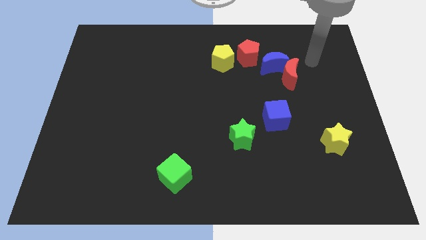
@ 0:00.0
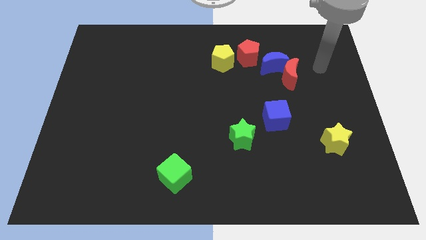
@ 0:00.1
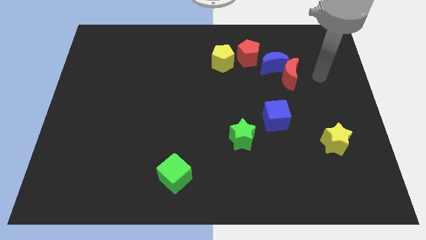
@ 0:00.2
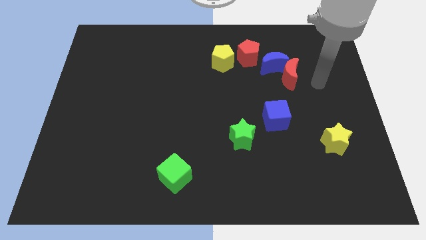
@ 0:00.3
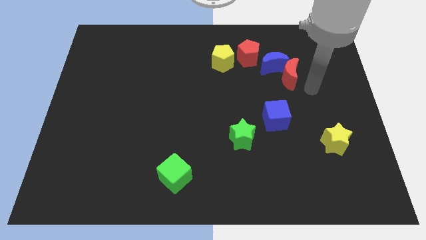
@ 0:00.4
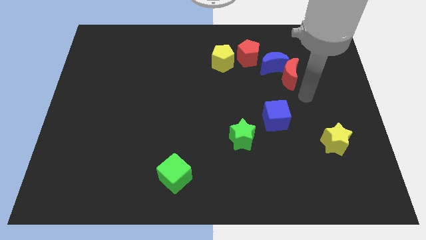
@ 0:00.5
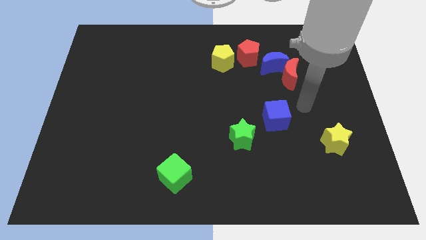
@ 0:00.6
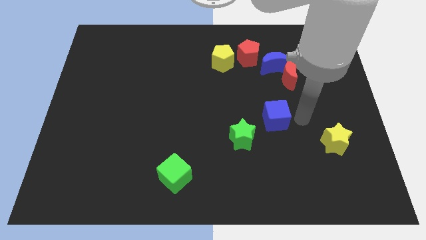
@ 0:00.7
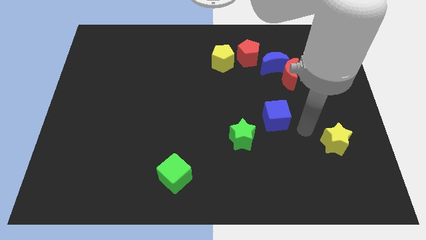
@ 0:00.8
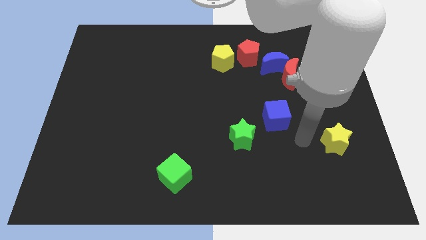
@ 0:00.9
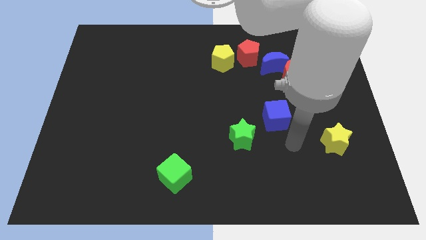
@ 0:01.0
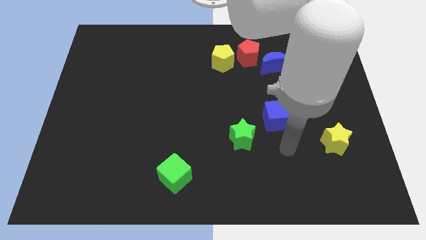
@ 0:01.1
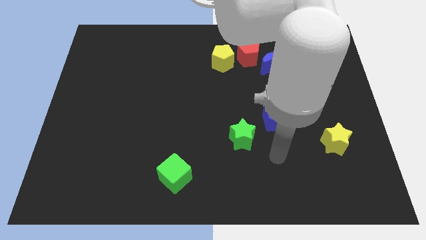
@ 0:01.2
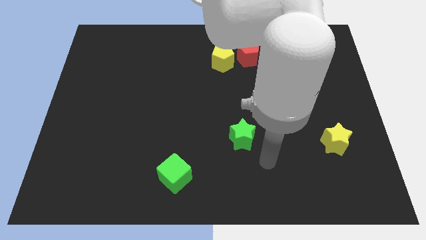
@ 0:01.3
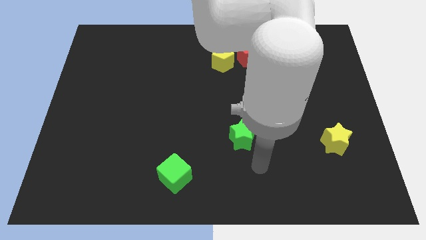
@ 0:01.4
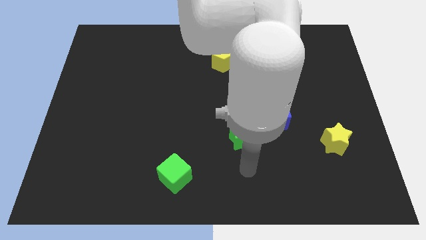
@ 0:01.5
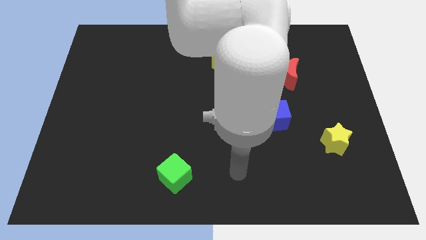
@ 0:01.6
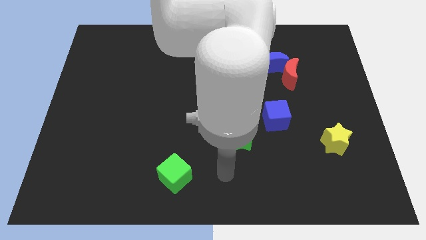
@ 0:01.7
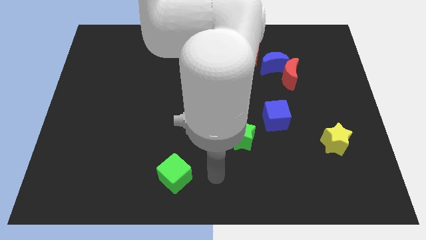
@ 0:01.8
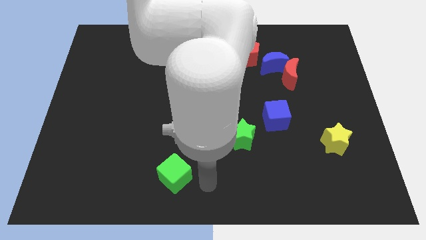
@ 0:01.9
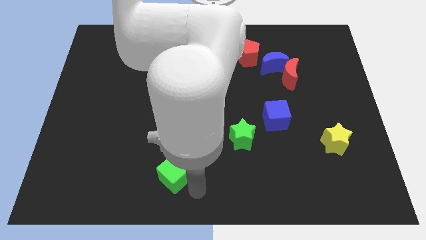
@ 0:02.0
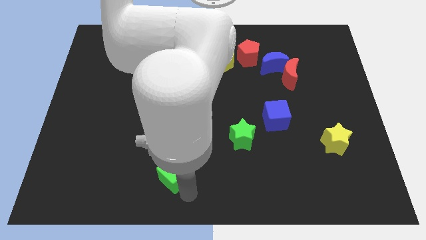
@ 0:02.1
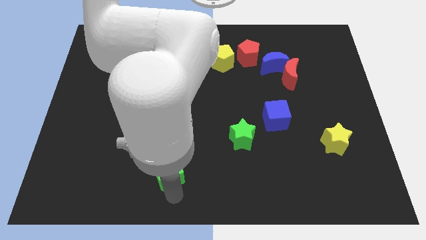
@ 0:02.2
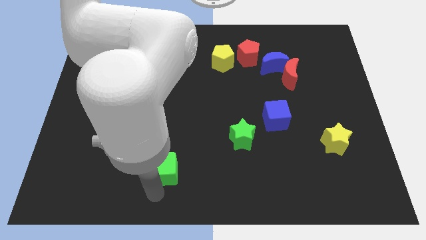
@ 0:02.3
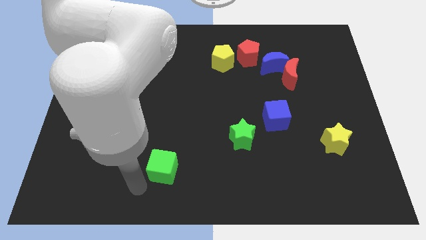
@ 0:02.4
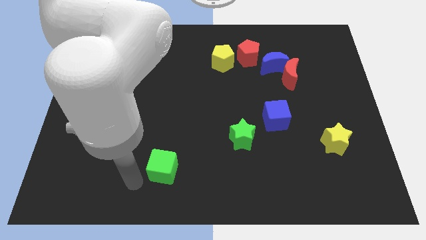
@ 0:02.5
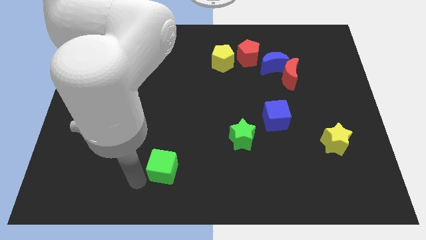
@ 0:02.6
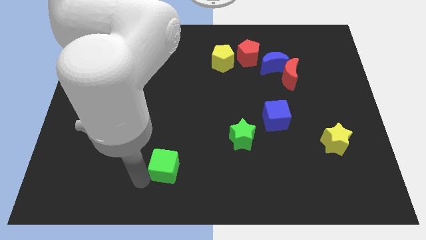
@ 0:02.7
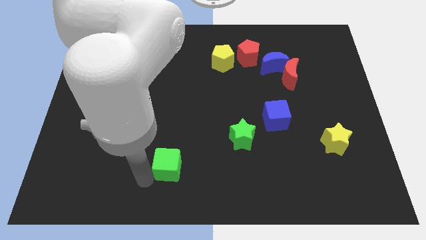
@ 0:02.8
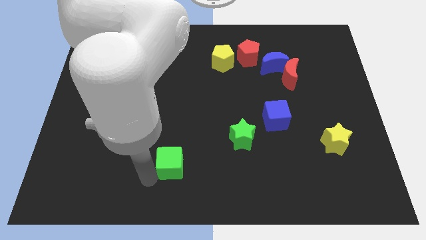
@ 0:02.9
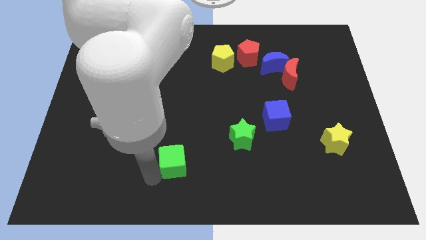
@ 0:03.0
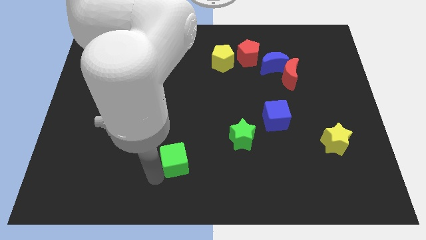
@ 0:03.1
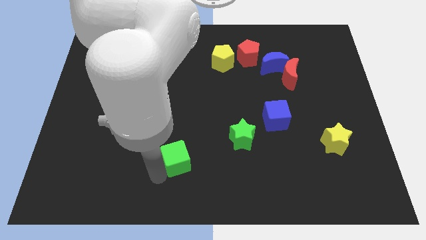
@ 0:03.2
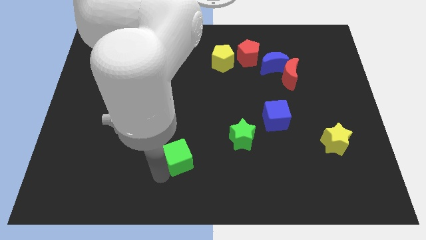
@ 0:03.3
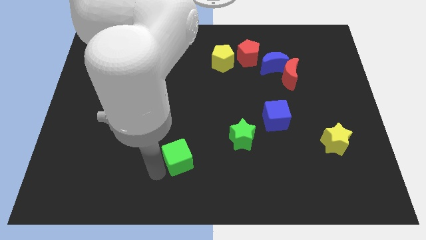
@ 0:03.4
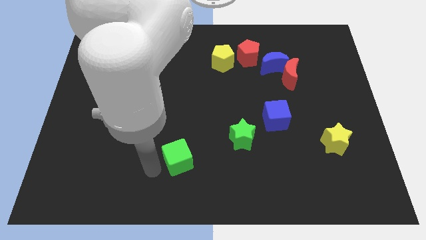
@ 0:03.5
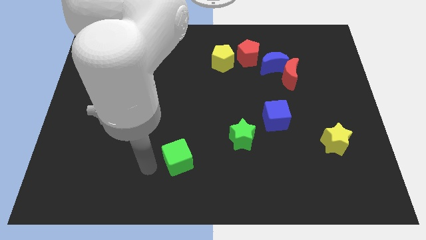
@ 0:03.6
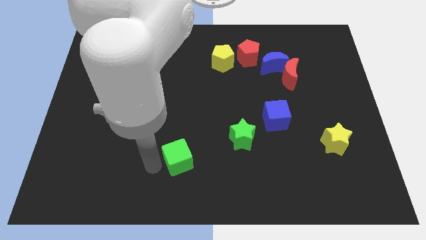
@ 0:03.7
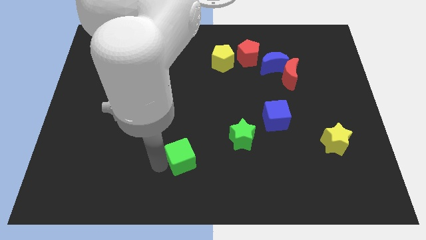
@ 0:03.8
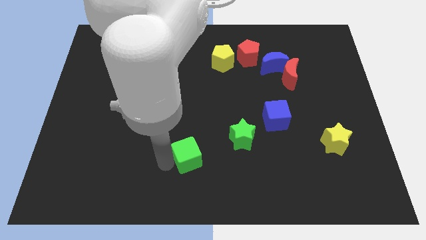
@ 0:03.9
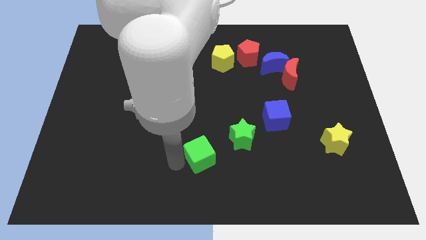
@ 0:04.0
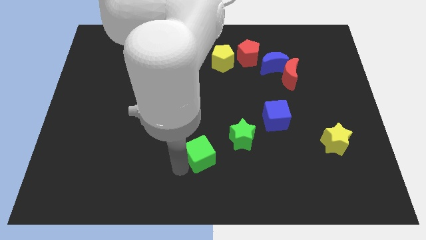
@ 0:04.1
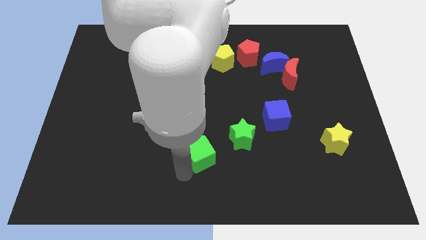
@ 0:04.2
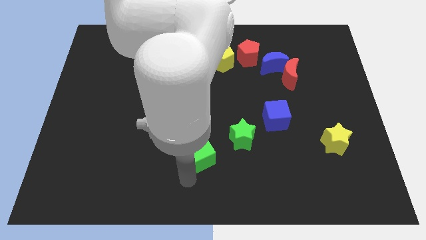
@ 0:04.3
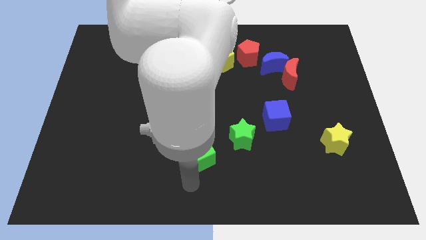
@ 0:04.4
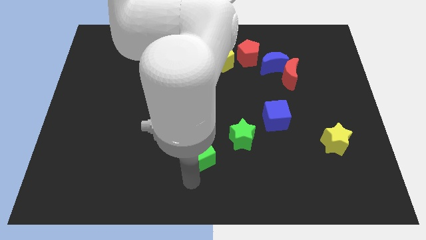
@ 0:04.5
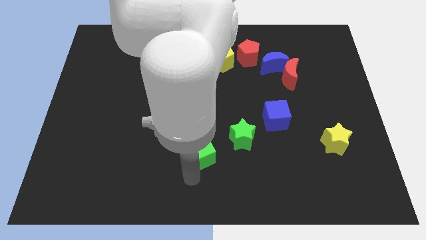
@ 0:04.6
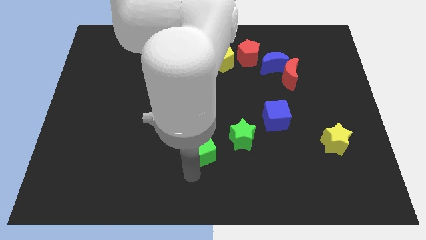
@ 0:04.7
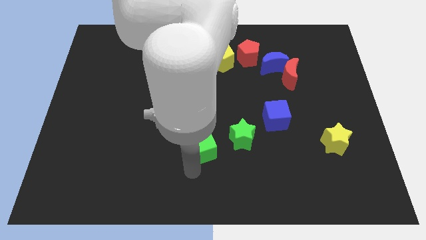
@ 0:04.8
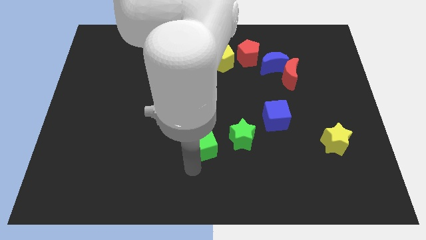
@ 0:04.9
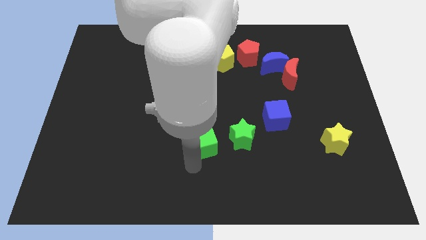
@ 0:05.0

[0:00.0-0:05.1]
push the green cube to the center

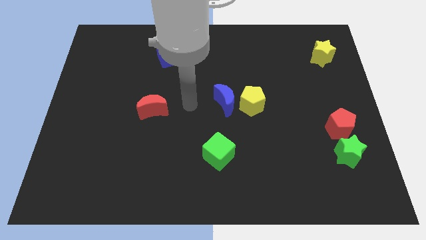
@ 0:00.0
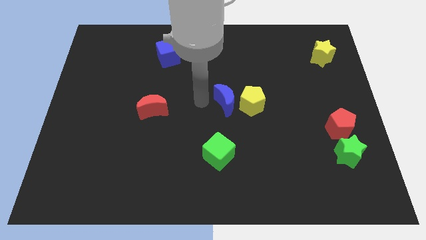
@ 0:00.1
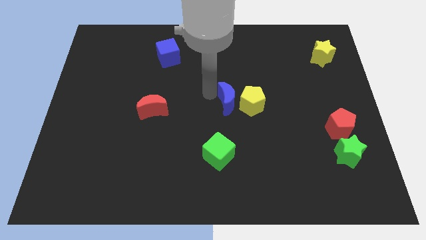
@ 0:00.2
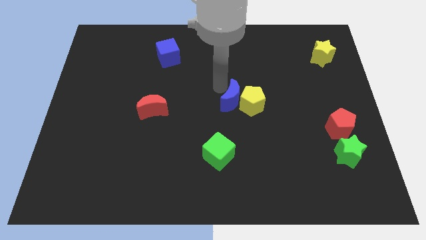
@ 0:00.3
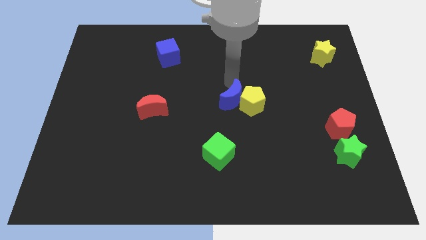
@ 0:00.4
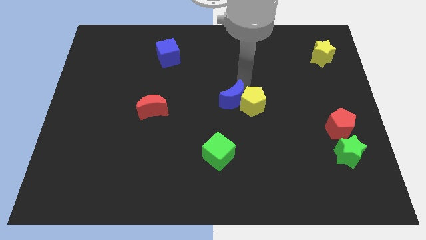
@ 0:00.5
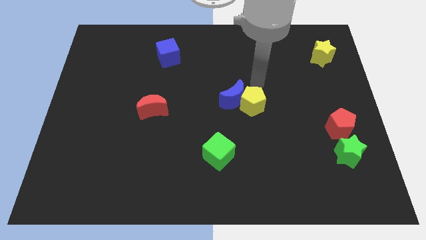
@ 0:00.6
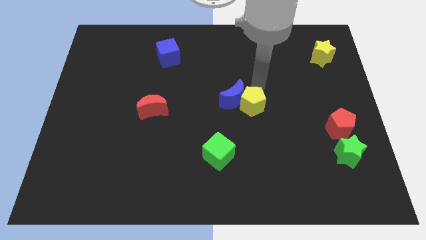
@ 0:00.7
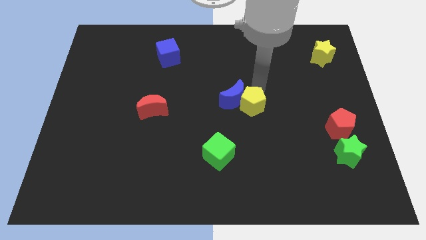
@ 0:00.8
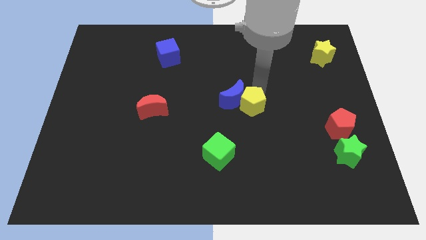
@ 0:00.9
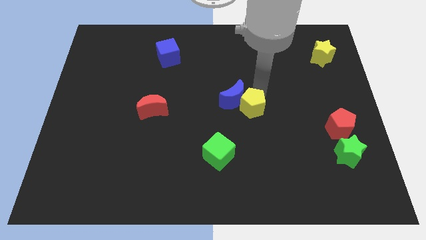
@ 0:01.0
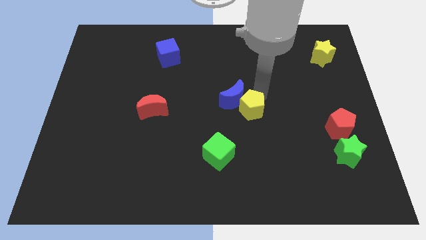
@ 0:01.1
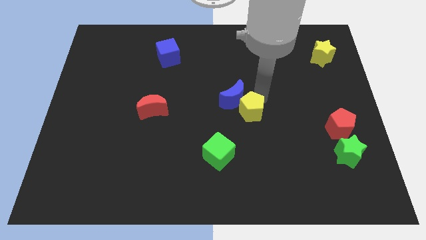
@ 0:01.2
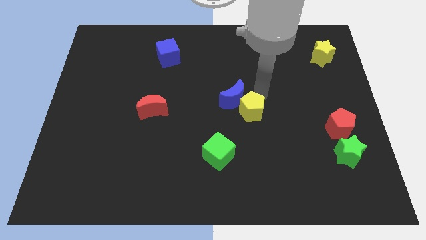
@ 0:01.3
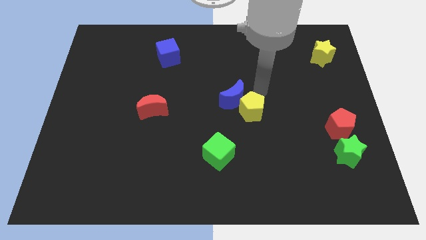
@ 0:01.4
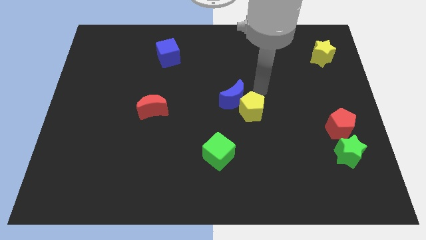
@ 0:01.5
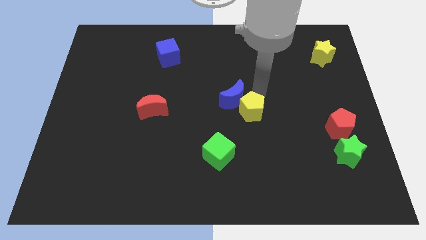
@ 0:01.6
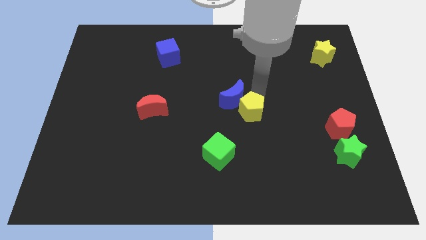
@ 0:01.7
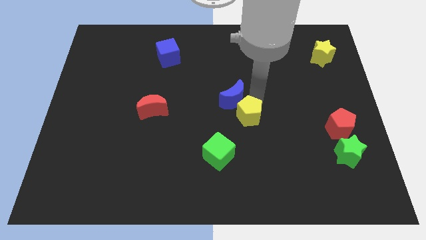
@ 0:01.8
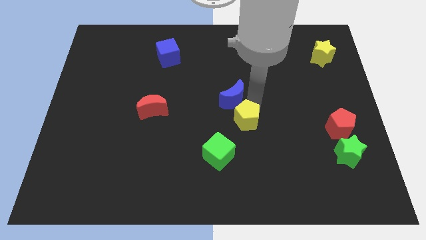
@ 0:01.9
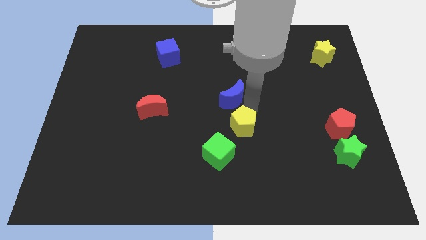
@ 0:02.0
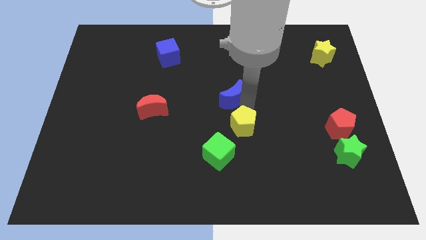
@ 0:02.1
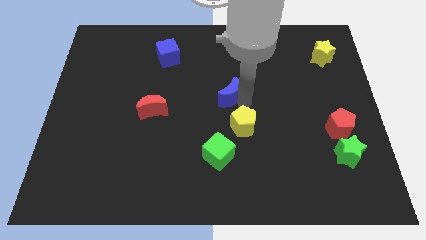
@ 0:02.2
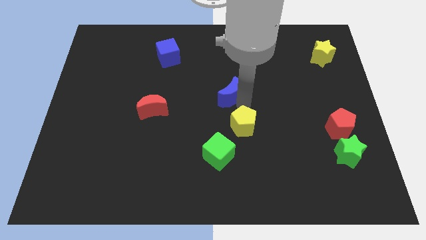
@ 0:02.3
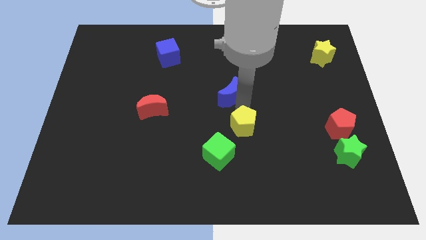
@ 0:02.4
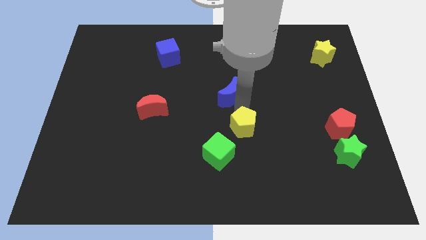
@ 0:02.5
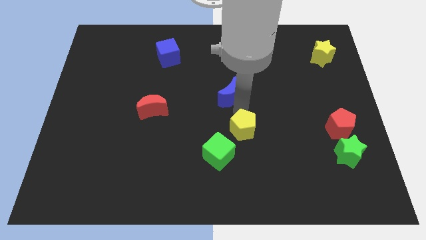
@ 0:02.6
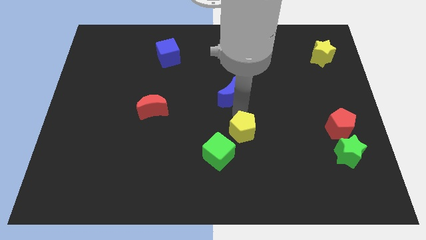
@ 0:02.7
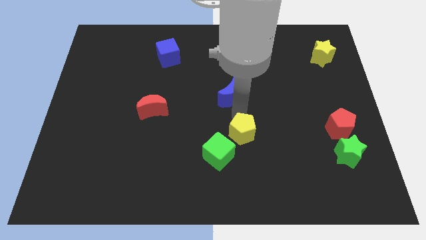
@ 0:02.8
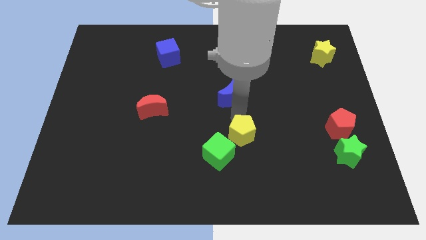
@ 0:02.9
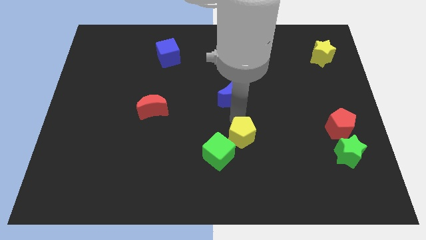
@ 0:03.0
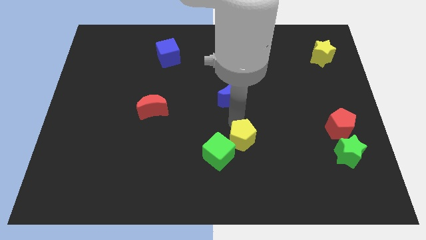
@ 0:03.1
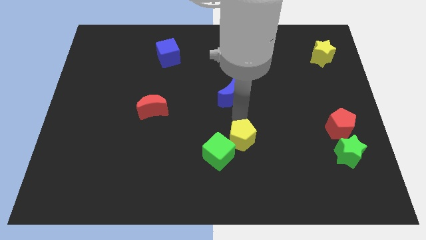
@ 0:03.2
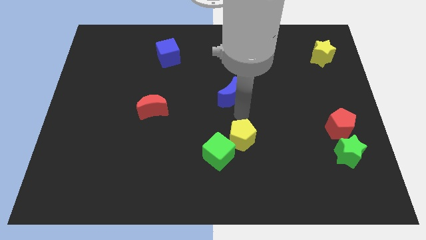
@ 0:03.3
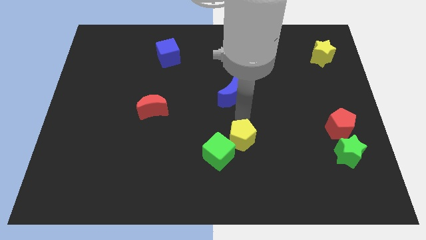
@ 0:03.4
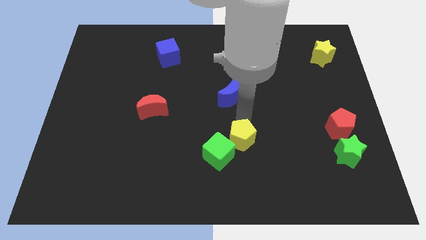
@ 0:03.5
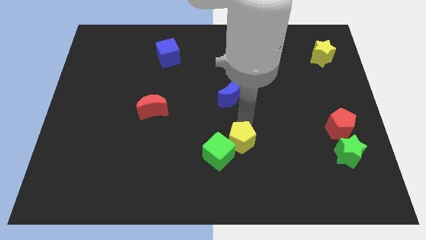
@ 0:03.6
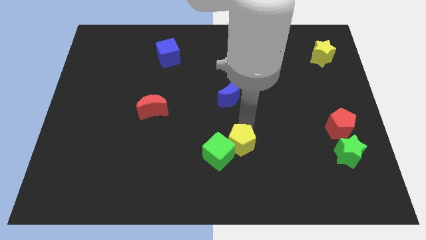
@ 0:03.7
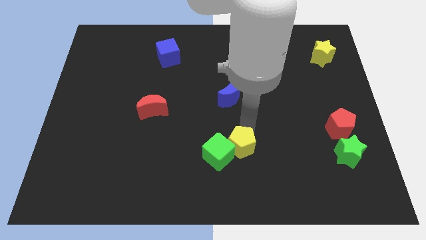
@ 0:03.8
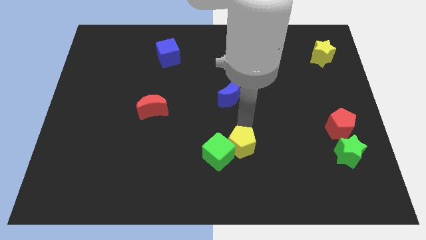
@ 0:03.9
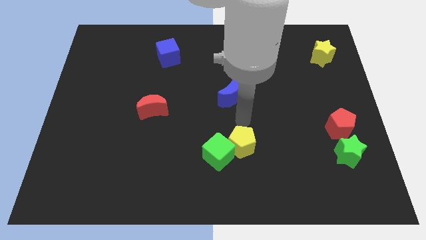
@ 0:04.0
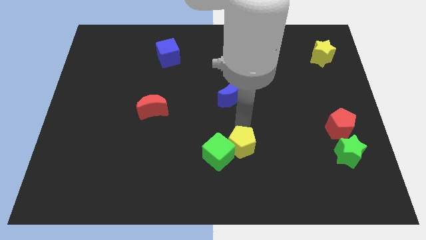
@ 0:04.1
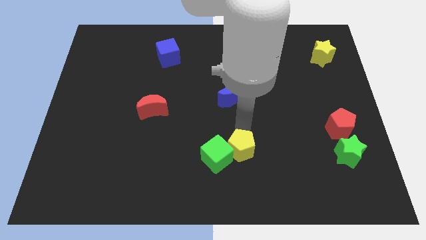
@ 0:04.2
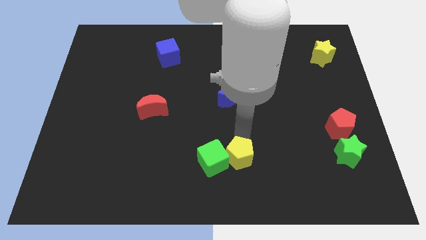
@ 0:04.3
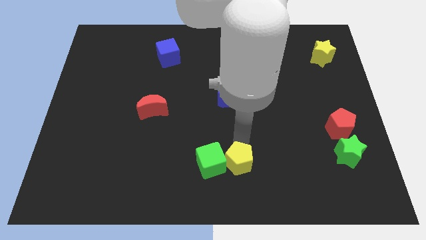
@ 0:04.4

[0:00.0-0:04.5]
push the yellow pentagon to the bottom
